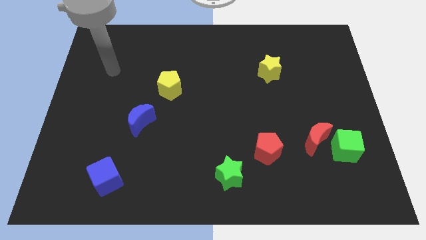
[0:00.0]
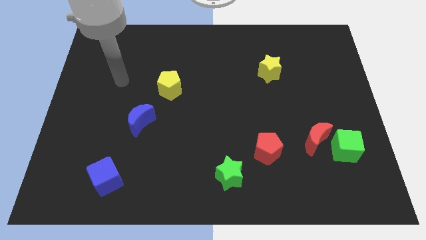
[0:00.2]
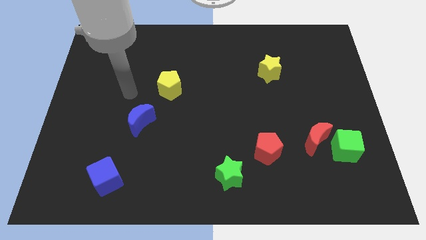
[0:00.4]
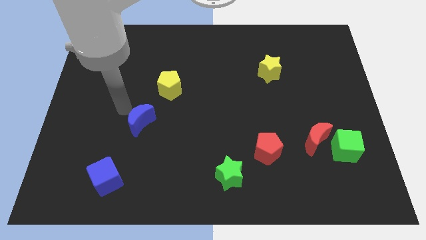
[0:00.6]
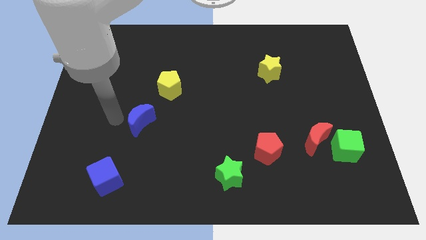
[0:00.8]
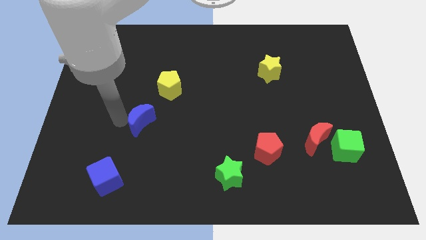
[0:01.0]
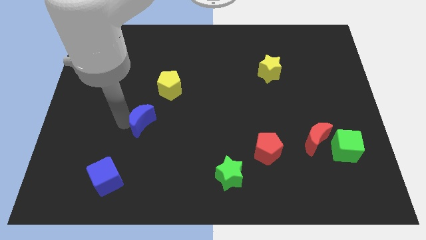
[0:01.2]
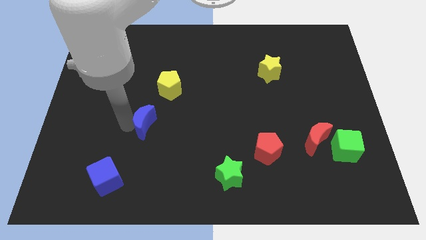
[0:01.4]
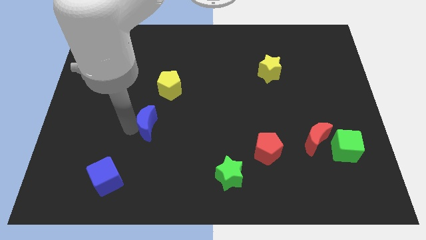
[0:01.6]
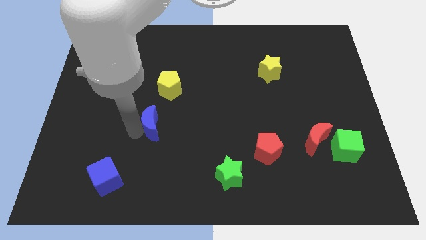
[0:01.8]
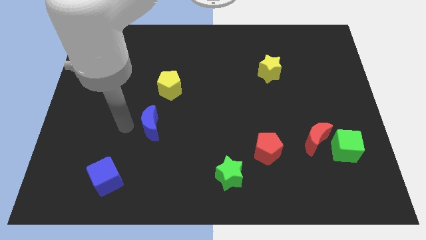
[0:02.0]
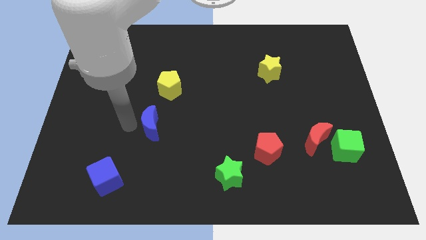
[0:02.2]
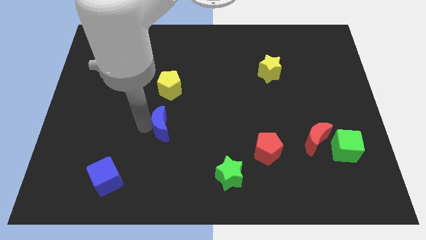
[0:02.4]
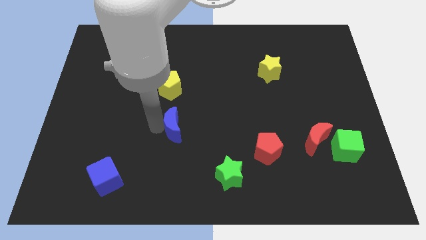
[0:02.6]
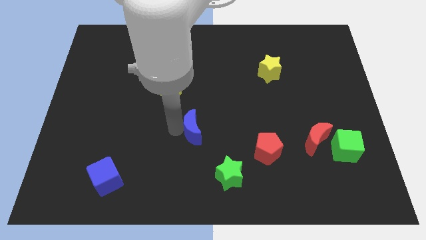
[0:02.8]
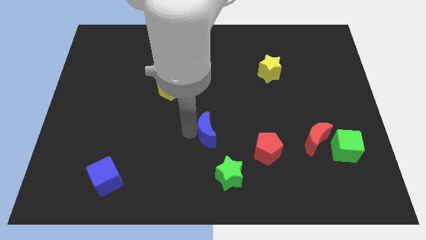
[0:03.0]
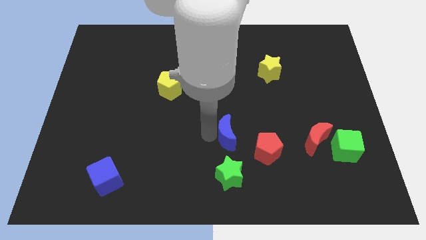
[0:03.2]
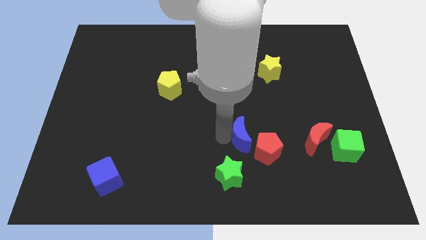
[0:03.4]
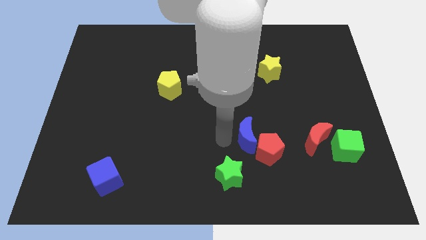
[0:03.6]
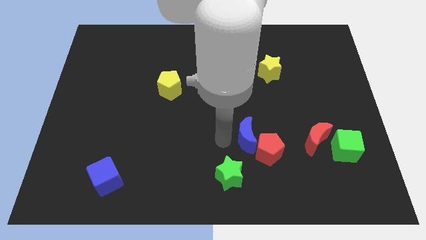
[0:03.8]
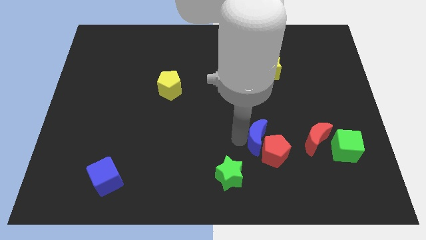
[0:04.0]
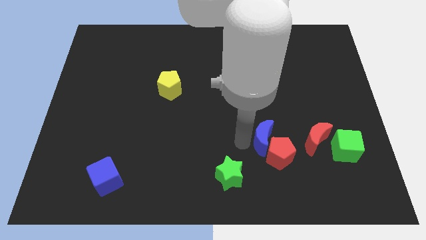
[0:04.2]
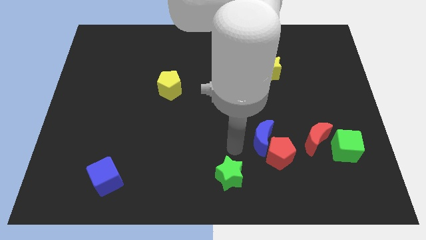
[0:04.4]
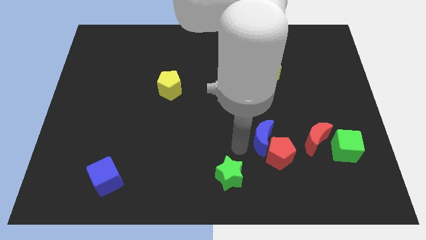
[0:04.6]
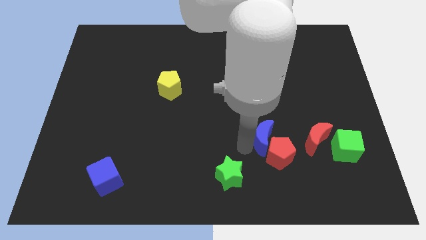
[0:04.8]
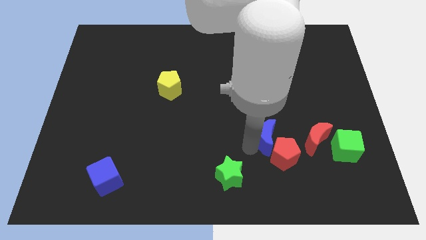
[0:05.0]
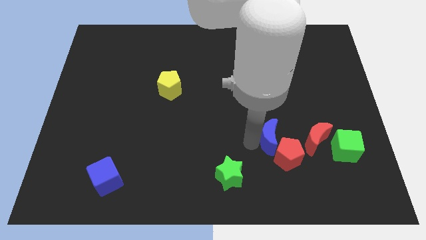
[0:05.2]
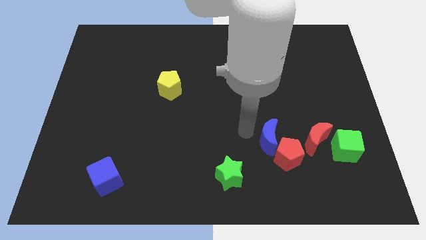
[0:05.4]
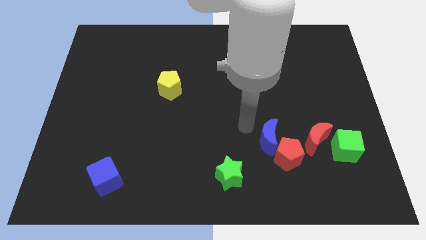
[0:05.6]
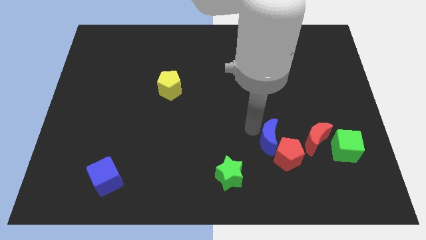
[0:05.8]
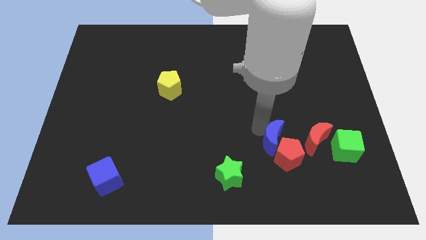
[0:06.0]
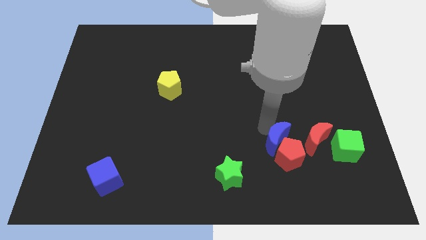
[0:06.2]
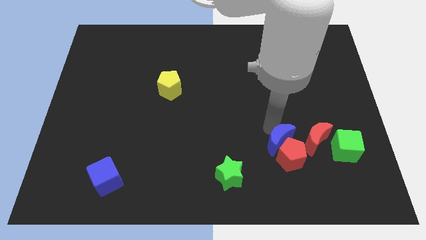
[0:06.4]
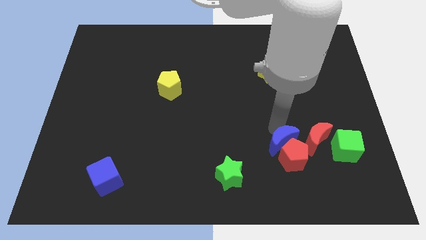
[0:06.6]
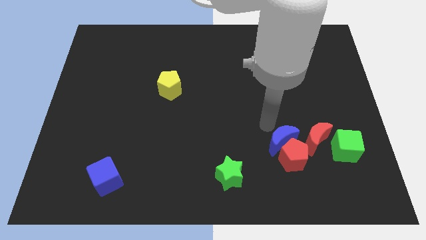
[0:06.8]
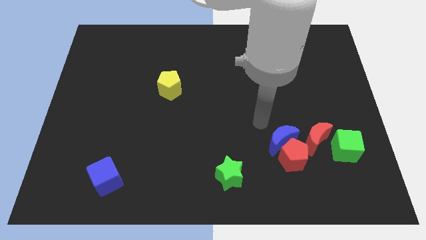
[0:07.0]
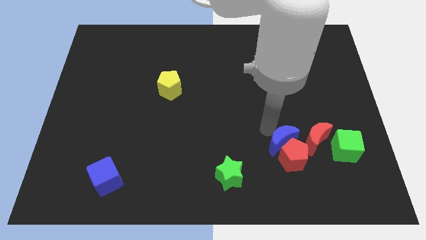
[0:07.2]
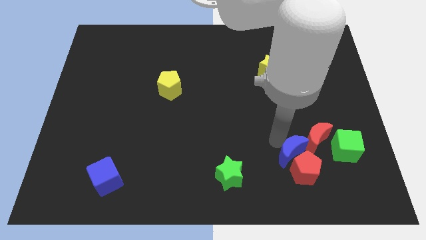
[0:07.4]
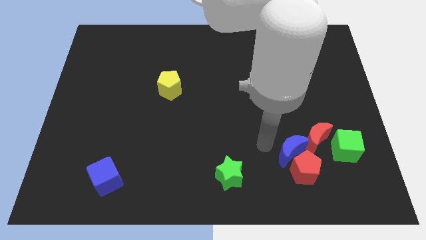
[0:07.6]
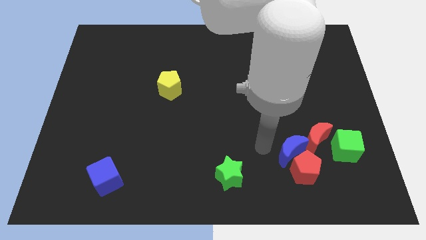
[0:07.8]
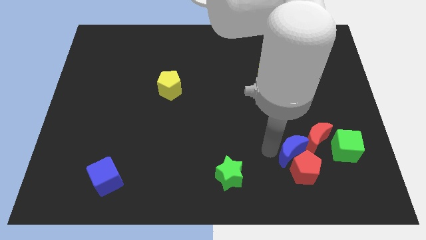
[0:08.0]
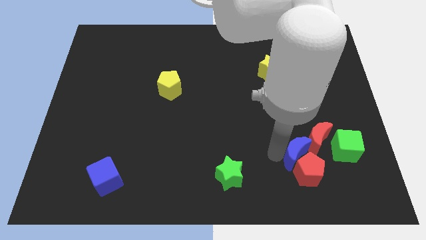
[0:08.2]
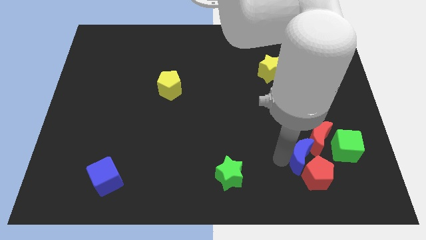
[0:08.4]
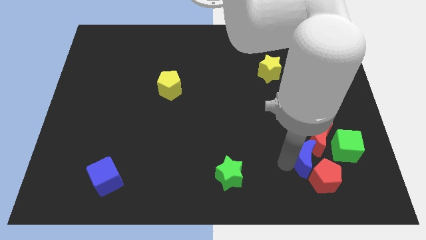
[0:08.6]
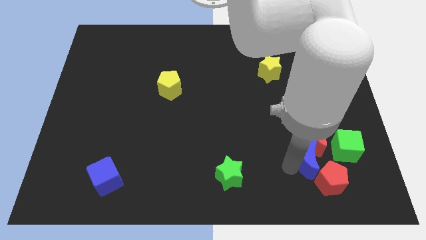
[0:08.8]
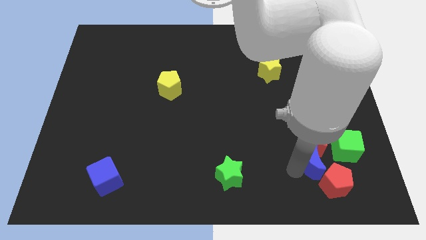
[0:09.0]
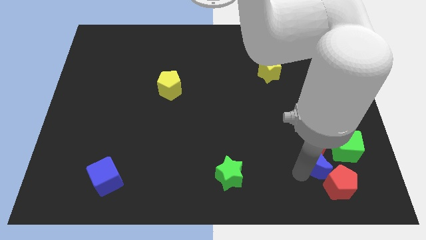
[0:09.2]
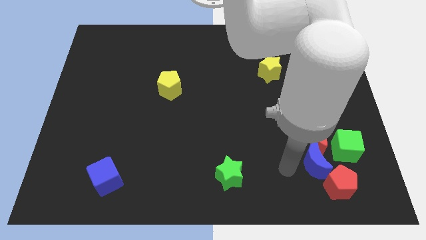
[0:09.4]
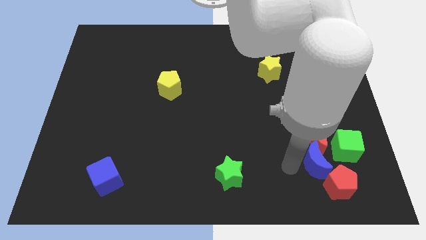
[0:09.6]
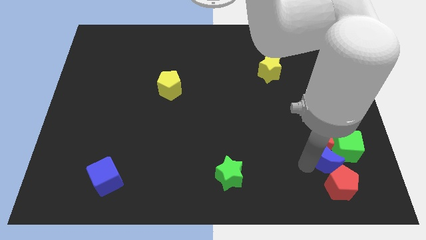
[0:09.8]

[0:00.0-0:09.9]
put the blue moon to the bottom right side of the red moon

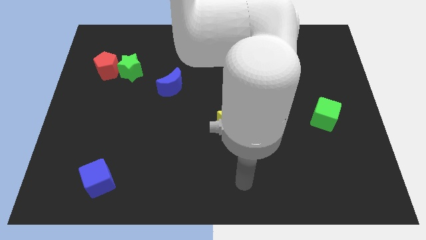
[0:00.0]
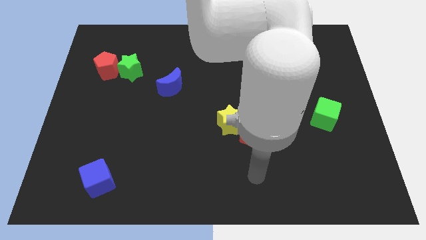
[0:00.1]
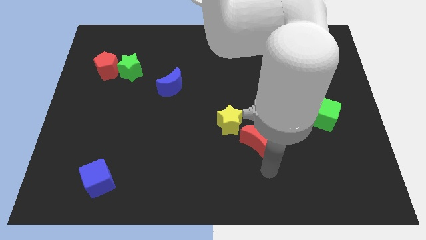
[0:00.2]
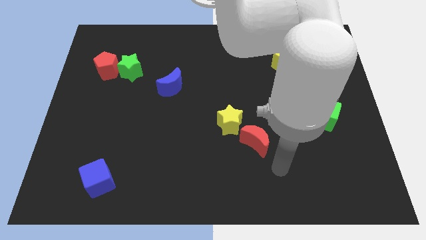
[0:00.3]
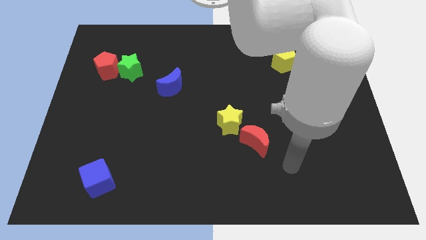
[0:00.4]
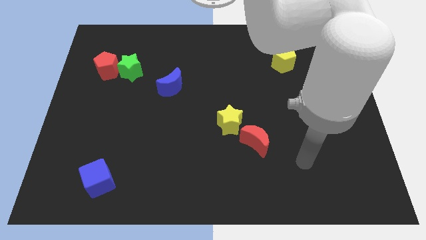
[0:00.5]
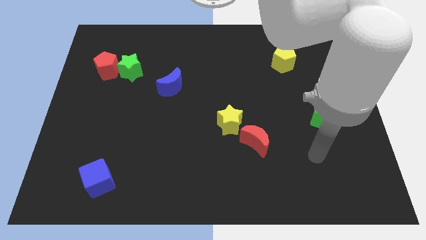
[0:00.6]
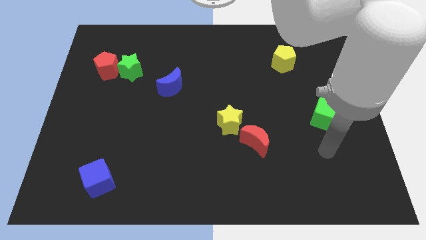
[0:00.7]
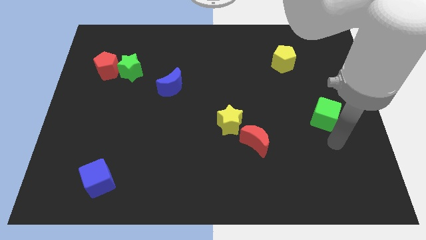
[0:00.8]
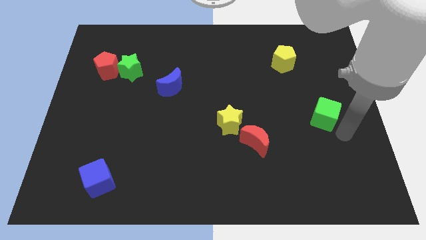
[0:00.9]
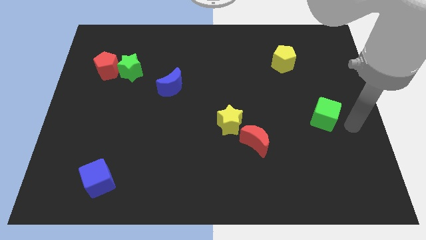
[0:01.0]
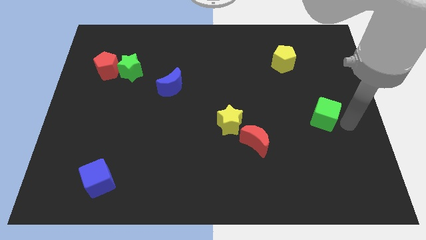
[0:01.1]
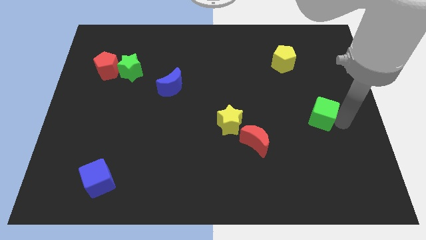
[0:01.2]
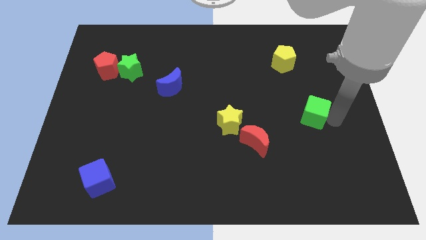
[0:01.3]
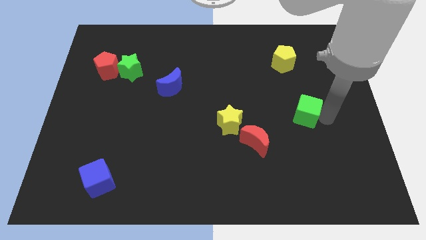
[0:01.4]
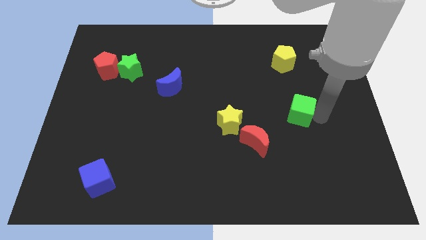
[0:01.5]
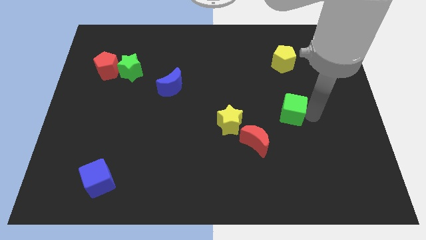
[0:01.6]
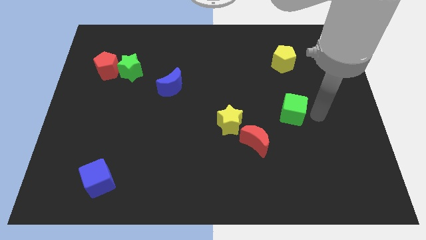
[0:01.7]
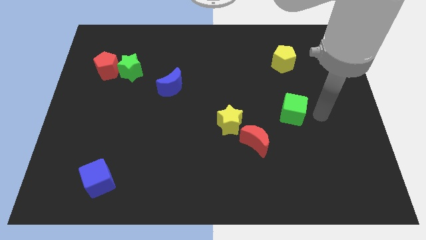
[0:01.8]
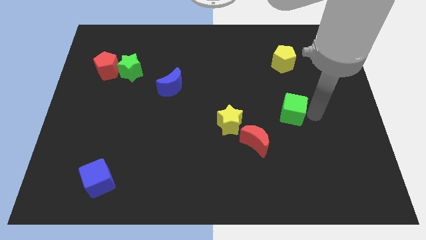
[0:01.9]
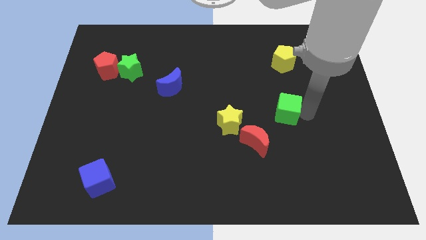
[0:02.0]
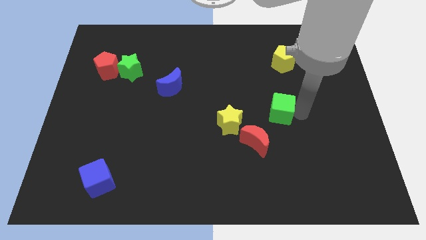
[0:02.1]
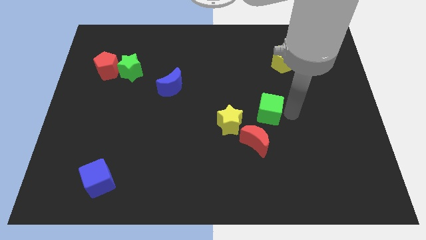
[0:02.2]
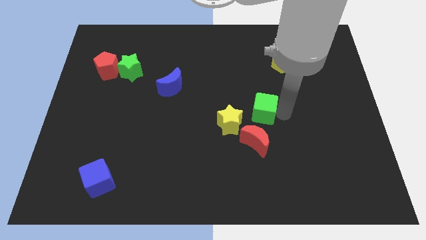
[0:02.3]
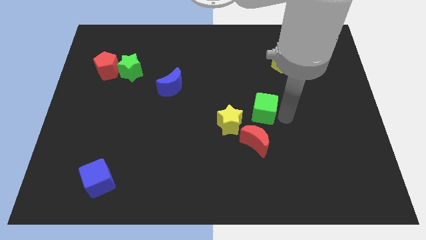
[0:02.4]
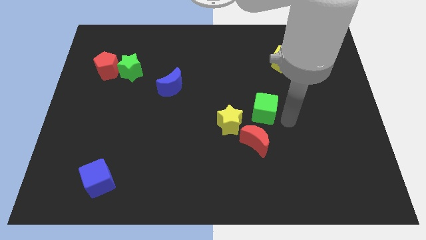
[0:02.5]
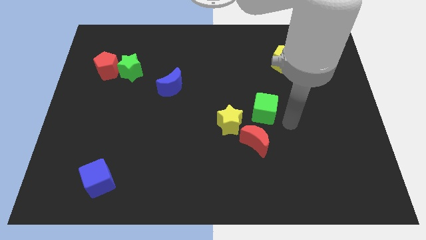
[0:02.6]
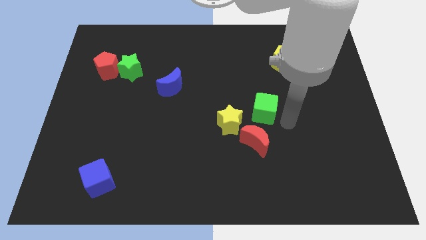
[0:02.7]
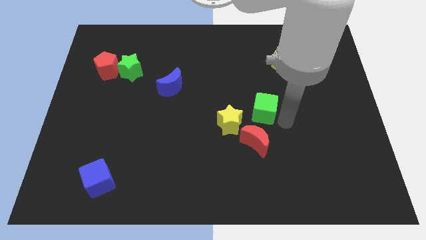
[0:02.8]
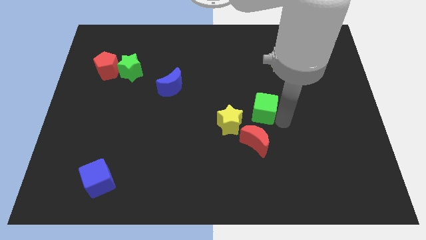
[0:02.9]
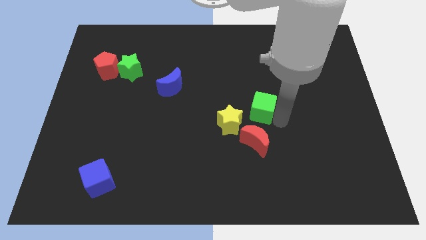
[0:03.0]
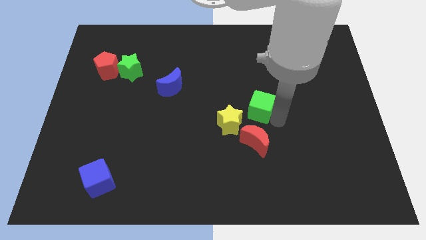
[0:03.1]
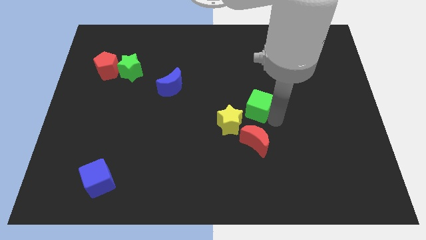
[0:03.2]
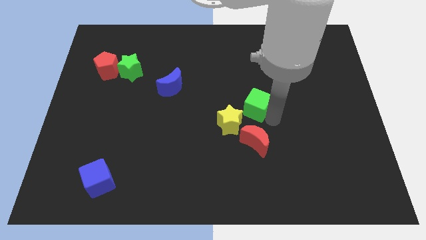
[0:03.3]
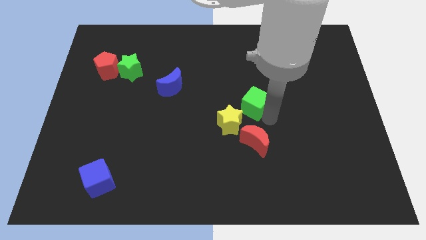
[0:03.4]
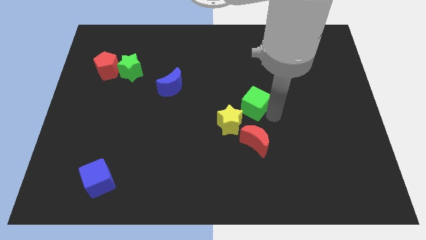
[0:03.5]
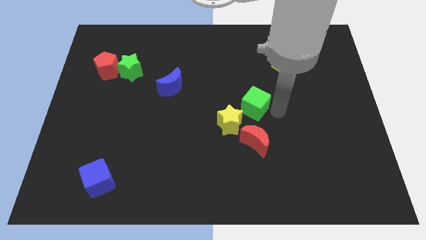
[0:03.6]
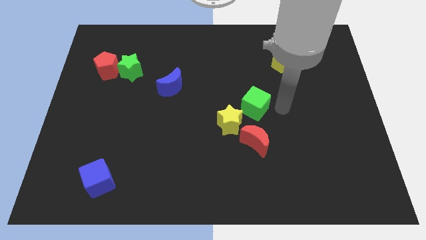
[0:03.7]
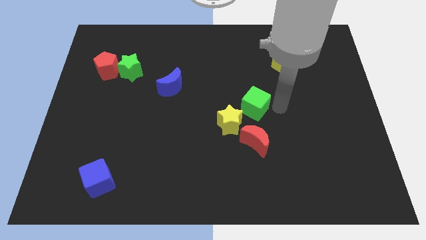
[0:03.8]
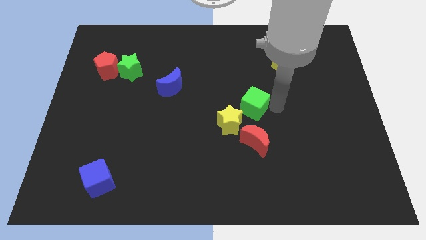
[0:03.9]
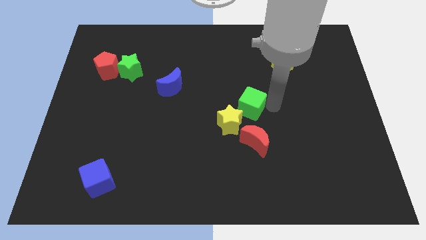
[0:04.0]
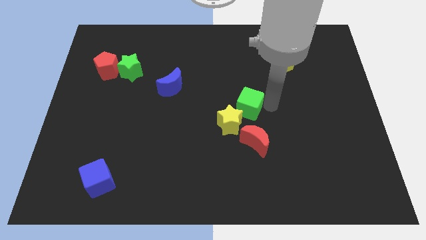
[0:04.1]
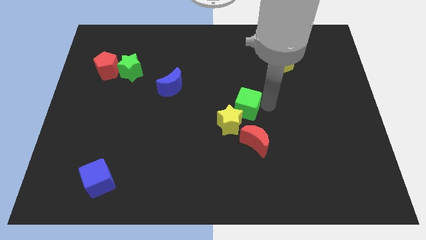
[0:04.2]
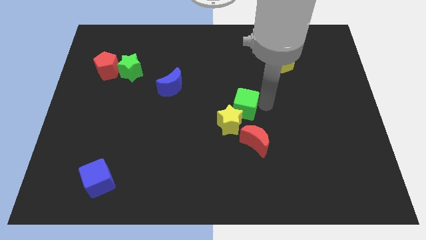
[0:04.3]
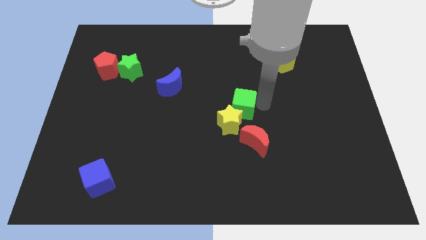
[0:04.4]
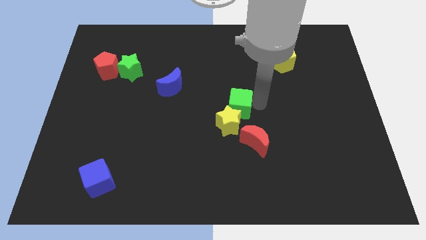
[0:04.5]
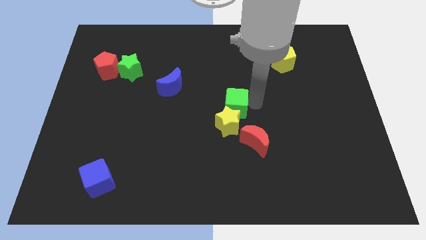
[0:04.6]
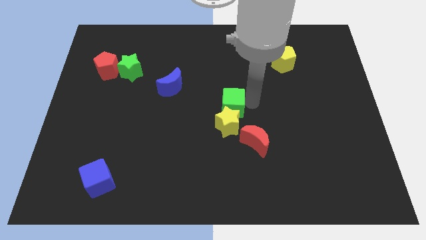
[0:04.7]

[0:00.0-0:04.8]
push the green cube to the top left side of the yellow star
